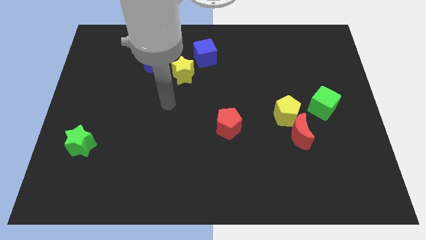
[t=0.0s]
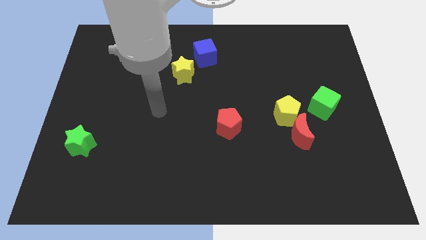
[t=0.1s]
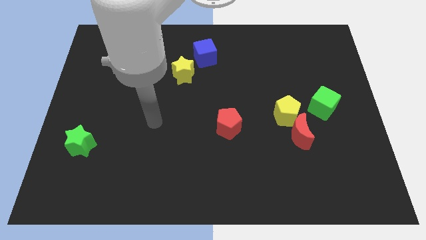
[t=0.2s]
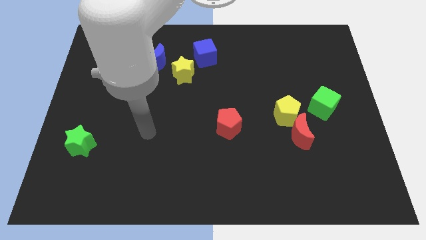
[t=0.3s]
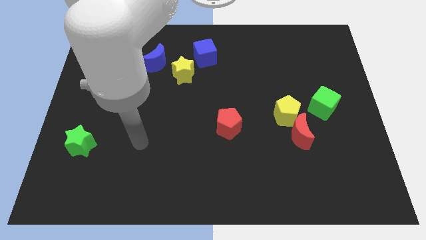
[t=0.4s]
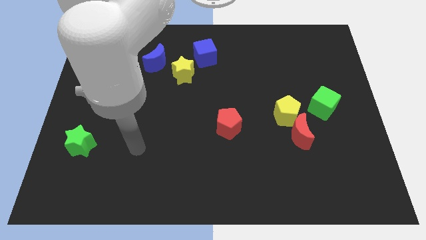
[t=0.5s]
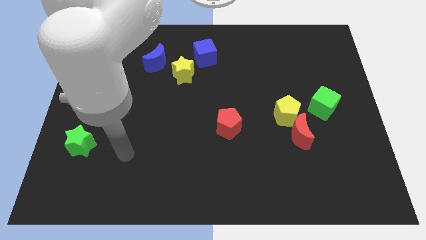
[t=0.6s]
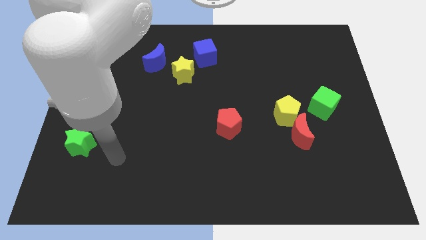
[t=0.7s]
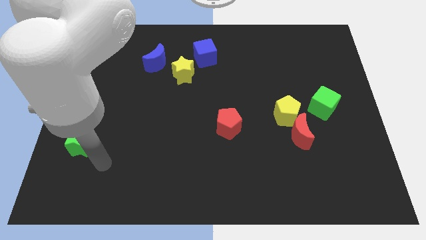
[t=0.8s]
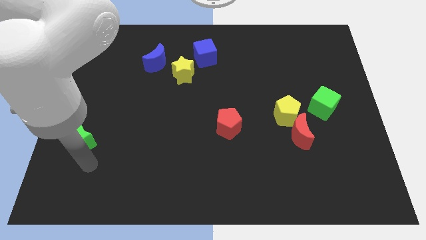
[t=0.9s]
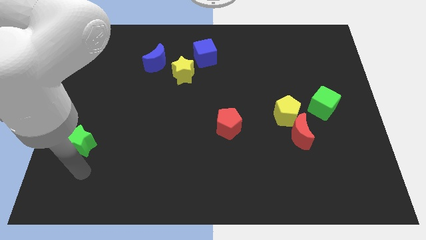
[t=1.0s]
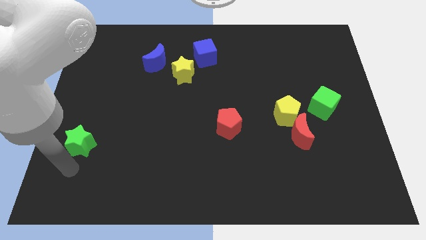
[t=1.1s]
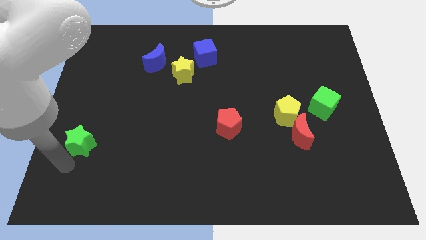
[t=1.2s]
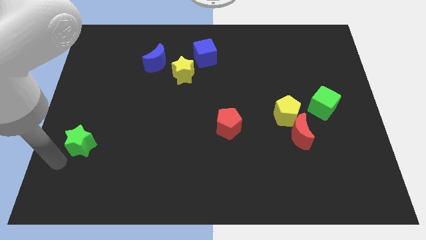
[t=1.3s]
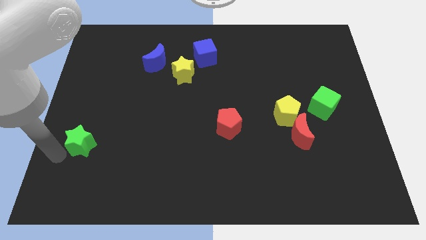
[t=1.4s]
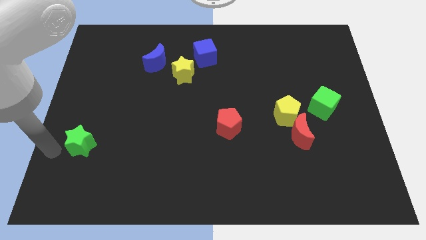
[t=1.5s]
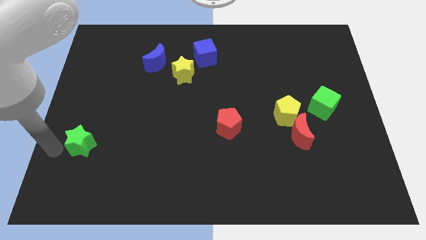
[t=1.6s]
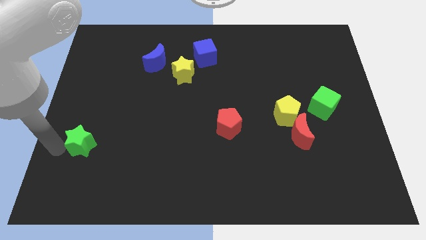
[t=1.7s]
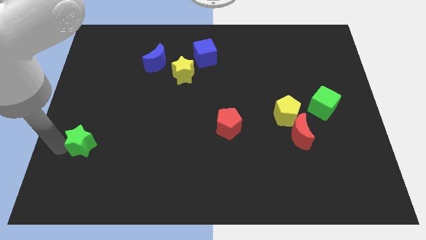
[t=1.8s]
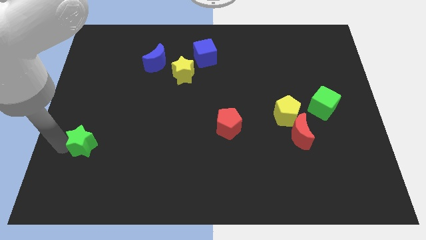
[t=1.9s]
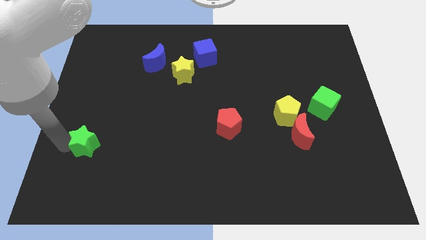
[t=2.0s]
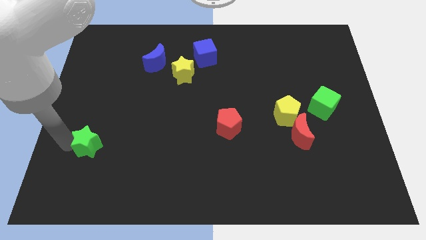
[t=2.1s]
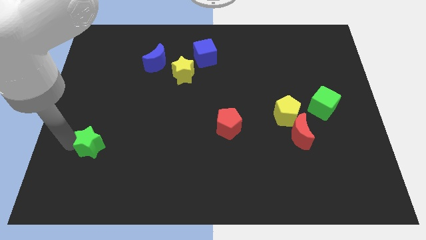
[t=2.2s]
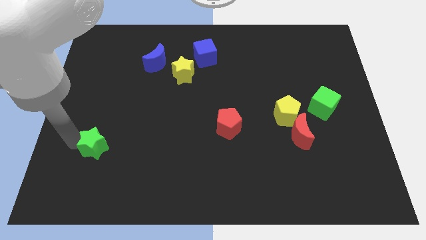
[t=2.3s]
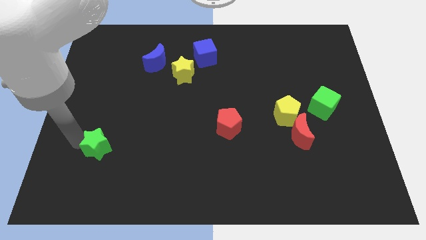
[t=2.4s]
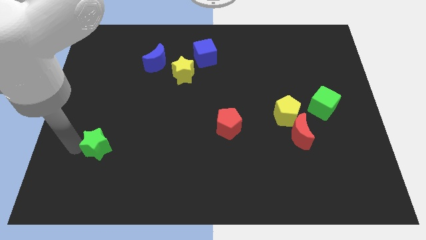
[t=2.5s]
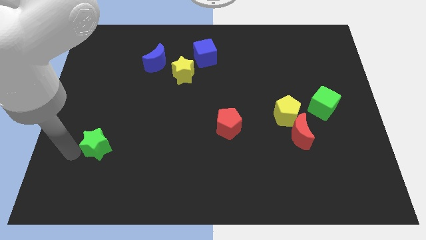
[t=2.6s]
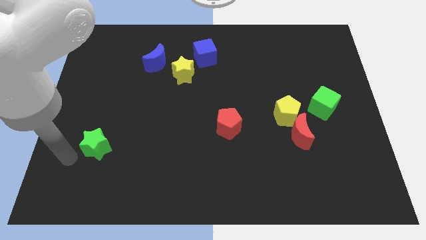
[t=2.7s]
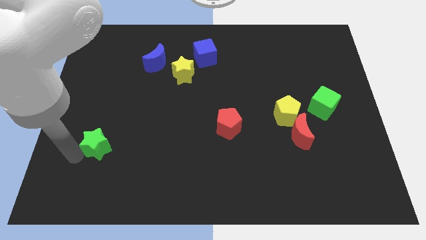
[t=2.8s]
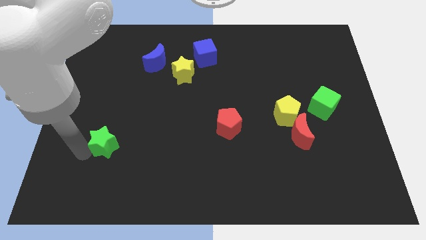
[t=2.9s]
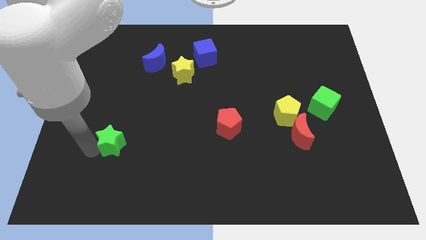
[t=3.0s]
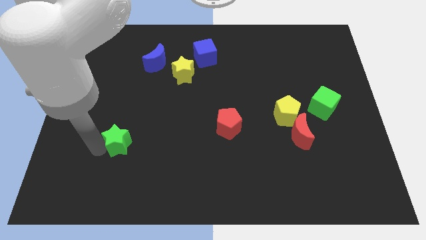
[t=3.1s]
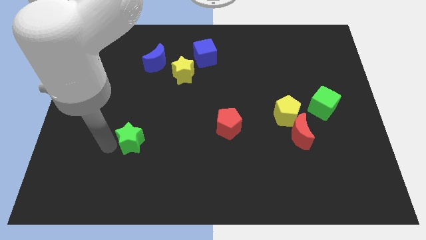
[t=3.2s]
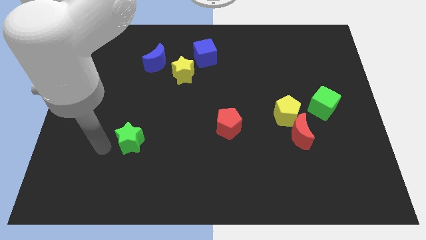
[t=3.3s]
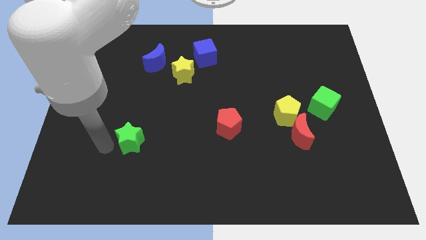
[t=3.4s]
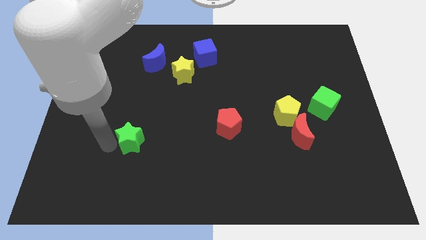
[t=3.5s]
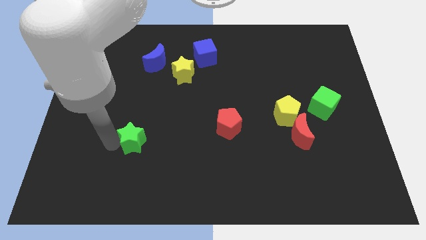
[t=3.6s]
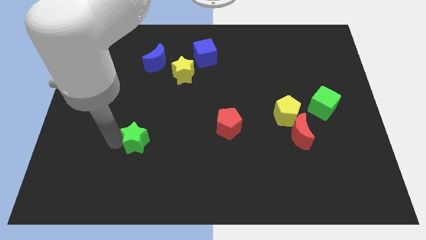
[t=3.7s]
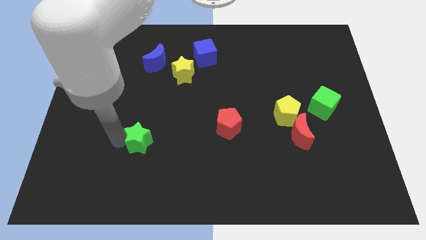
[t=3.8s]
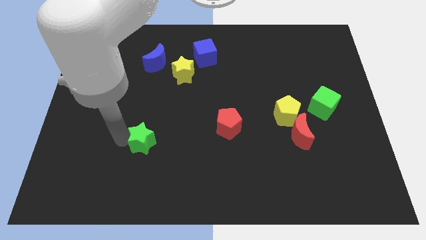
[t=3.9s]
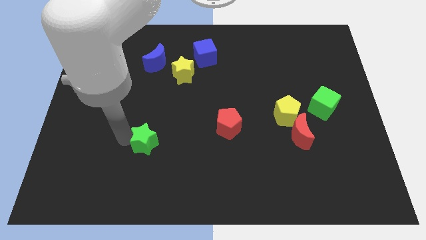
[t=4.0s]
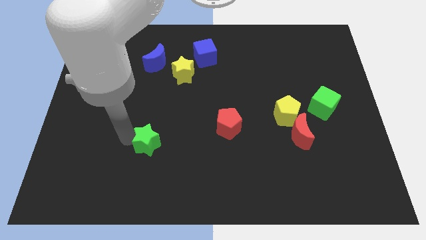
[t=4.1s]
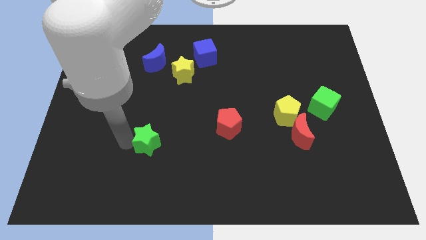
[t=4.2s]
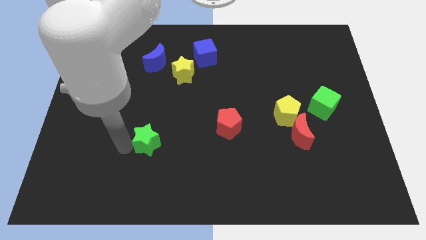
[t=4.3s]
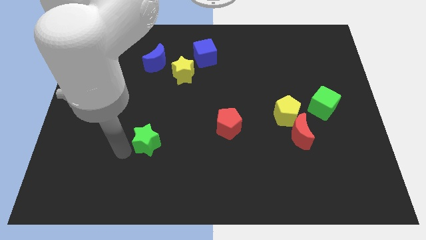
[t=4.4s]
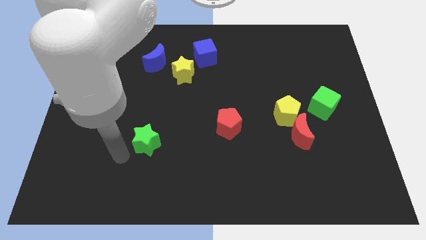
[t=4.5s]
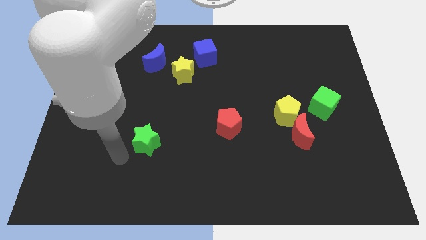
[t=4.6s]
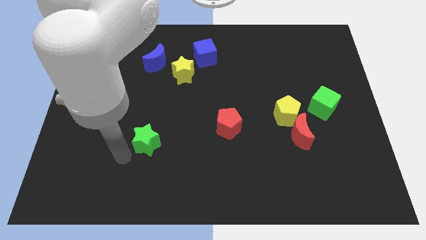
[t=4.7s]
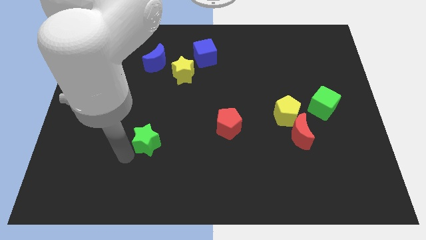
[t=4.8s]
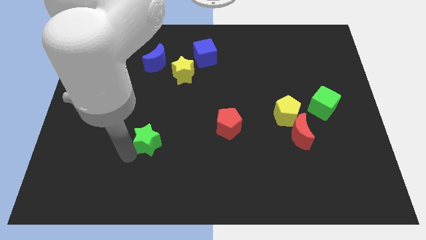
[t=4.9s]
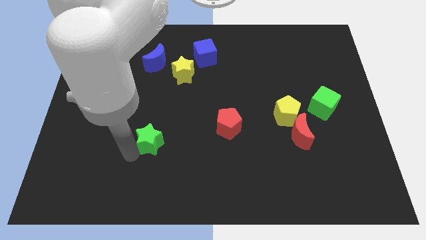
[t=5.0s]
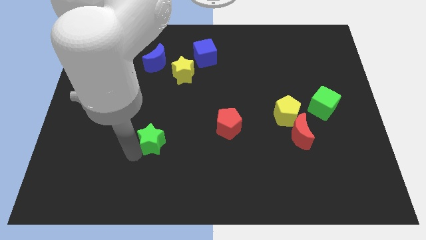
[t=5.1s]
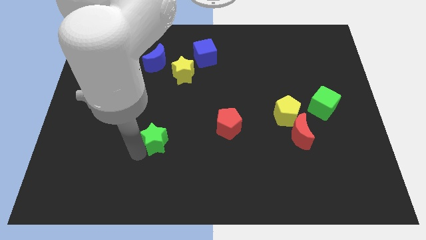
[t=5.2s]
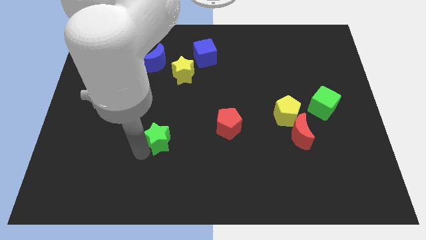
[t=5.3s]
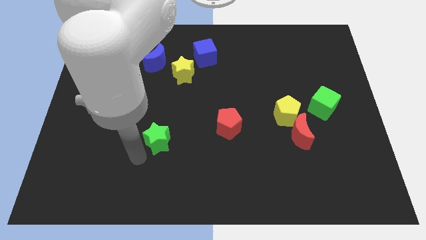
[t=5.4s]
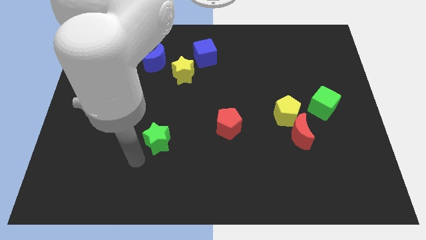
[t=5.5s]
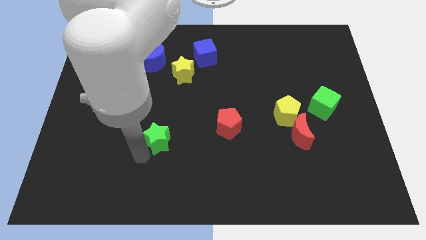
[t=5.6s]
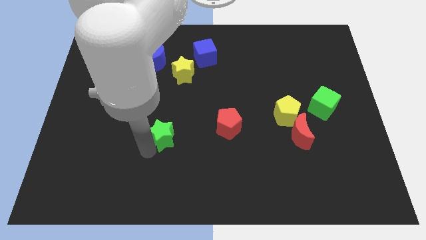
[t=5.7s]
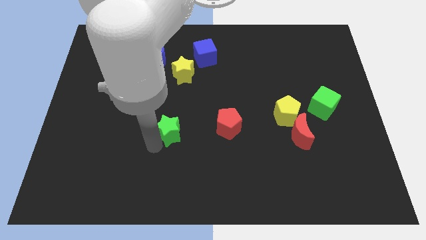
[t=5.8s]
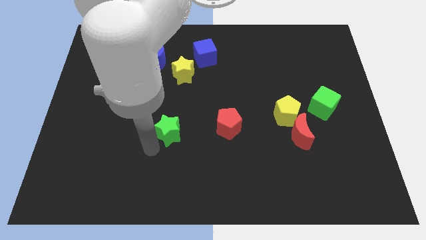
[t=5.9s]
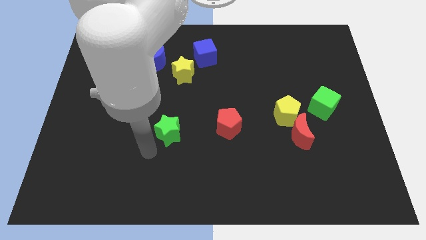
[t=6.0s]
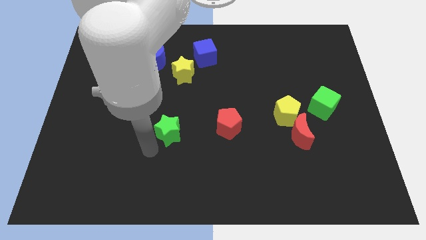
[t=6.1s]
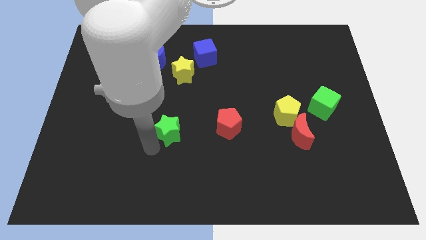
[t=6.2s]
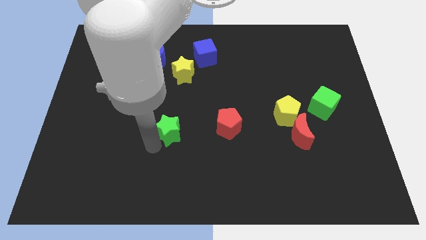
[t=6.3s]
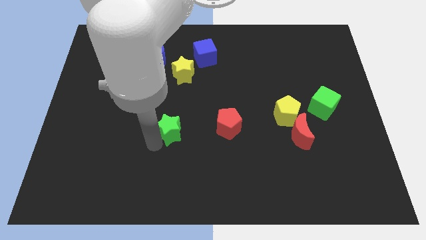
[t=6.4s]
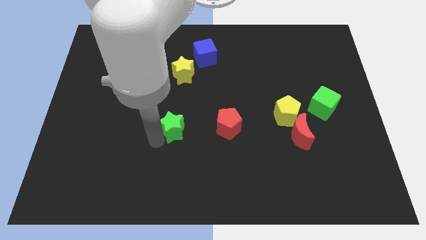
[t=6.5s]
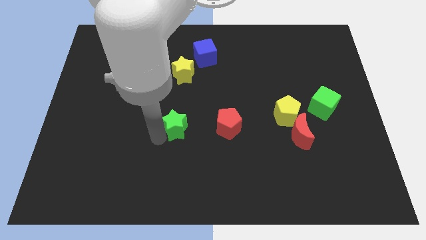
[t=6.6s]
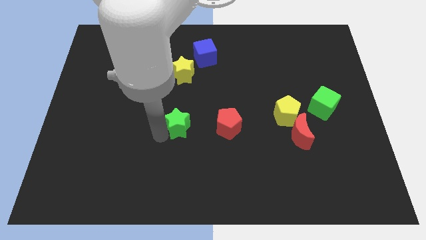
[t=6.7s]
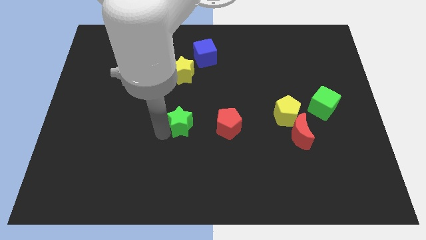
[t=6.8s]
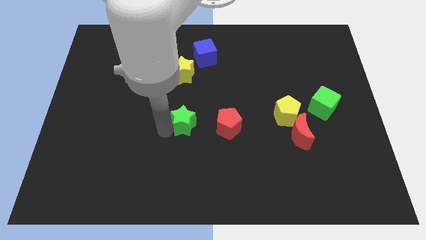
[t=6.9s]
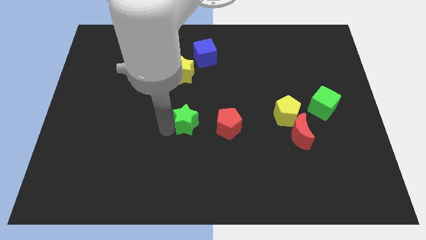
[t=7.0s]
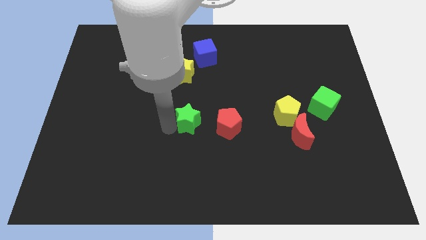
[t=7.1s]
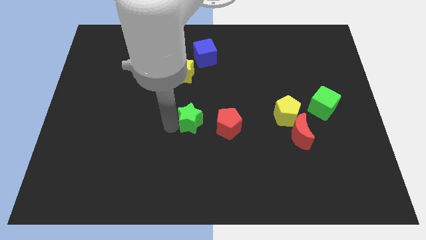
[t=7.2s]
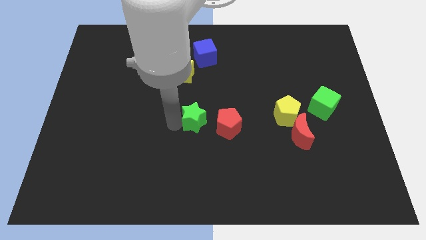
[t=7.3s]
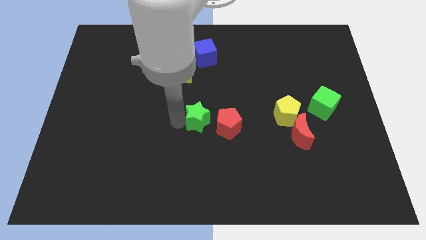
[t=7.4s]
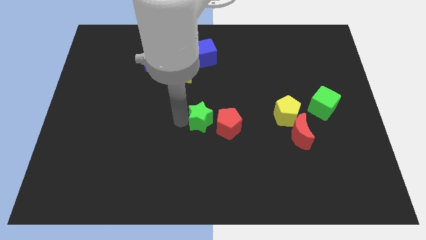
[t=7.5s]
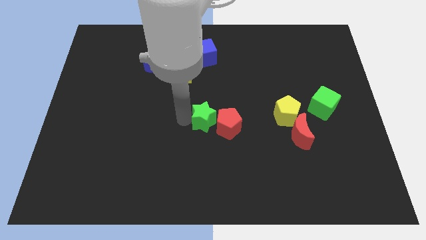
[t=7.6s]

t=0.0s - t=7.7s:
put the green star close to the red pentagon
